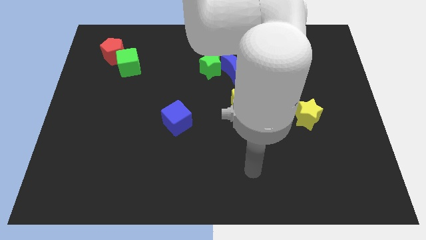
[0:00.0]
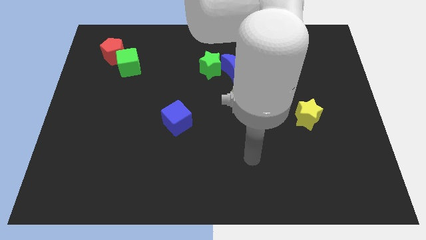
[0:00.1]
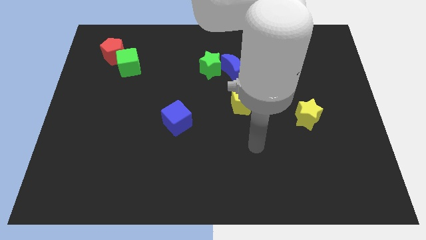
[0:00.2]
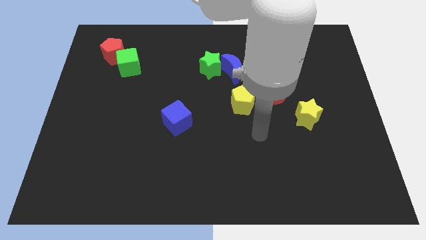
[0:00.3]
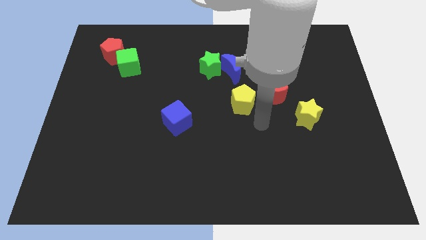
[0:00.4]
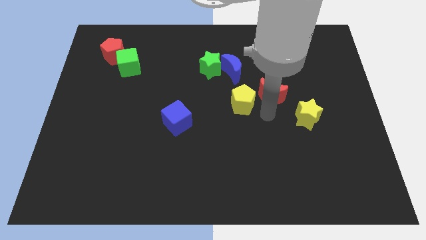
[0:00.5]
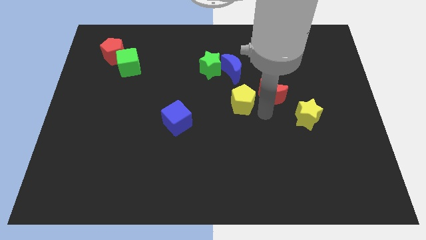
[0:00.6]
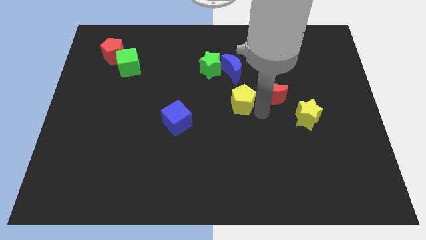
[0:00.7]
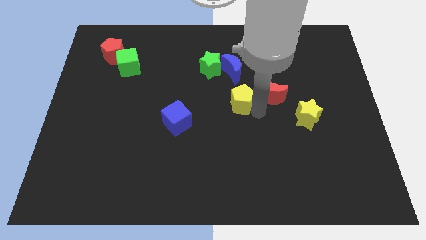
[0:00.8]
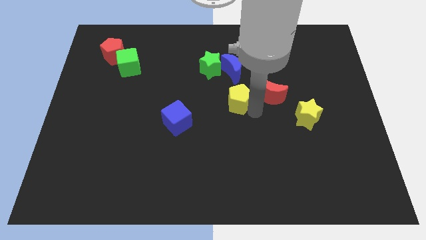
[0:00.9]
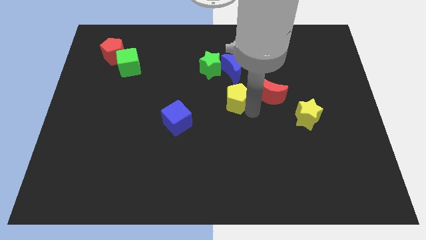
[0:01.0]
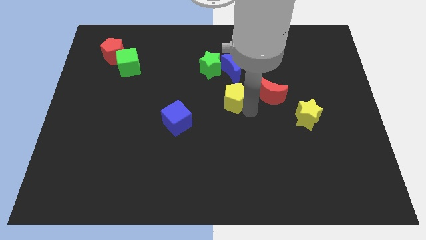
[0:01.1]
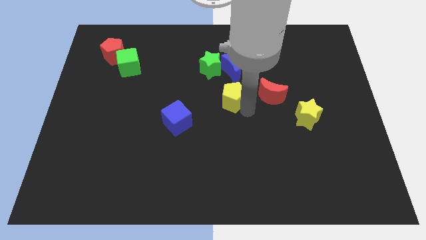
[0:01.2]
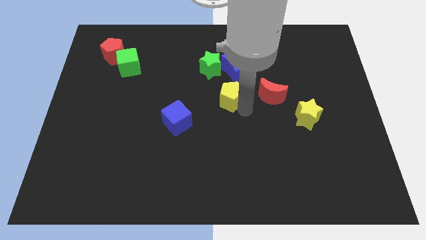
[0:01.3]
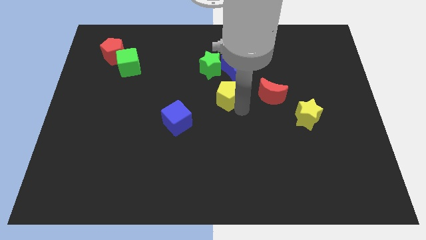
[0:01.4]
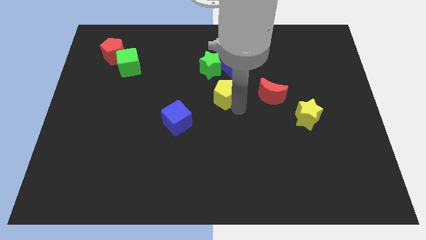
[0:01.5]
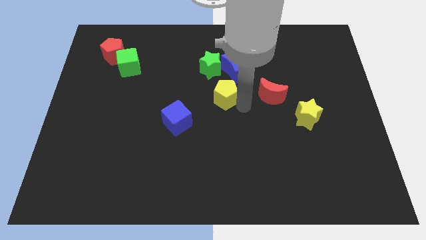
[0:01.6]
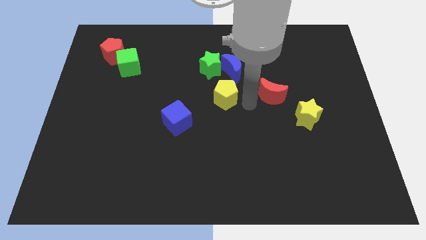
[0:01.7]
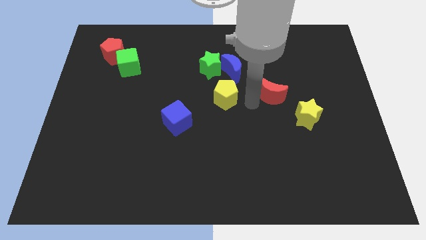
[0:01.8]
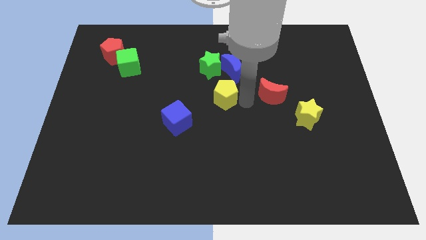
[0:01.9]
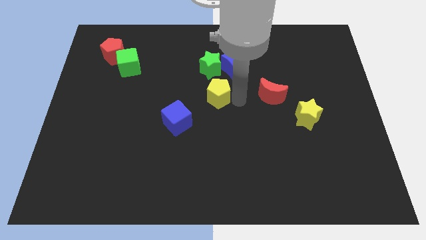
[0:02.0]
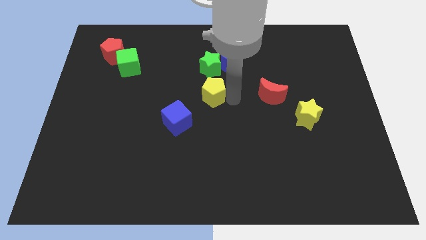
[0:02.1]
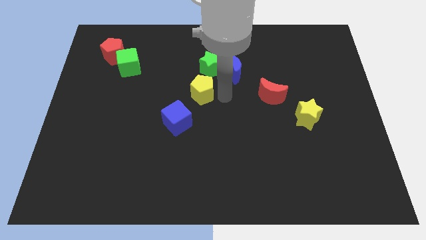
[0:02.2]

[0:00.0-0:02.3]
slightly push the yellow pentagon left

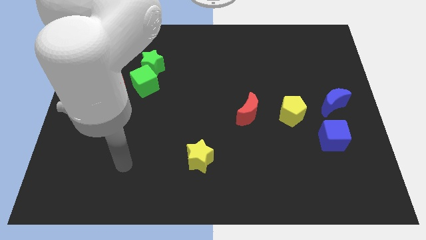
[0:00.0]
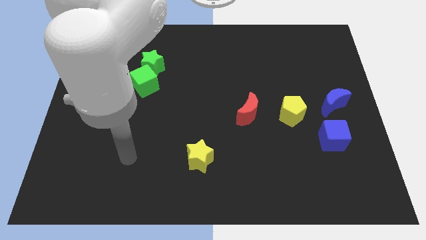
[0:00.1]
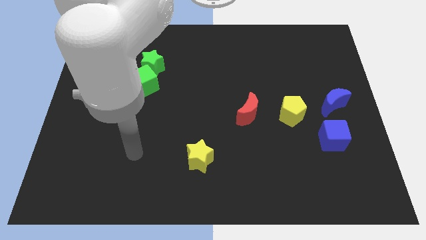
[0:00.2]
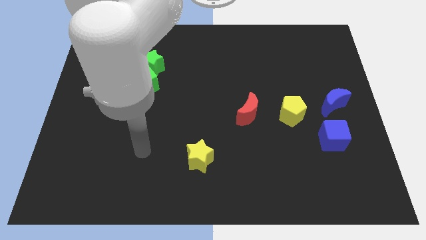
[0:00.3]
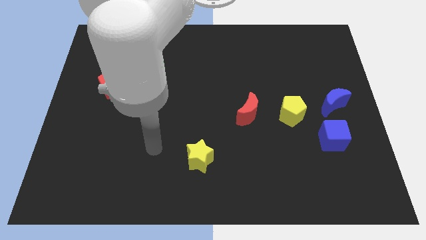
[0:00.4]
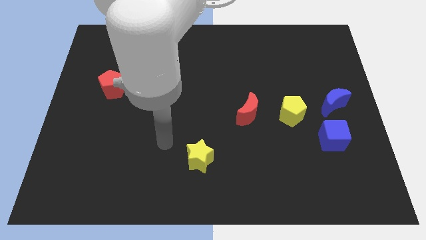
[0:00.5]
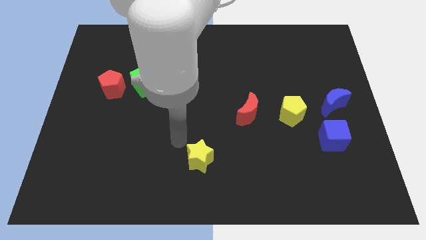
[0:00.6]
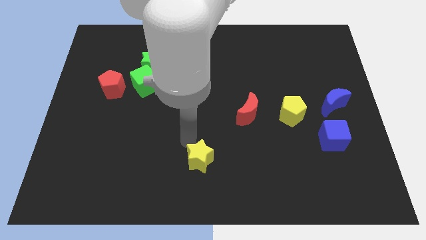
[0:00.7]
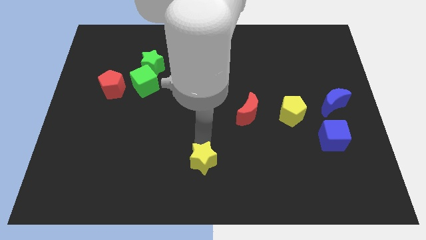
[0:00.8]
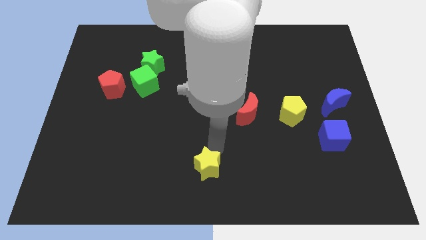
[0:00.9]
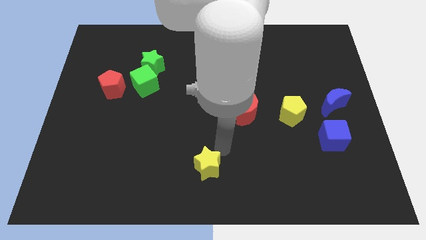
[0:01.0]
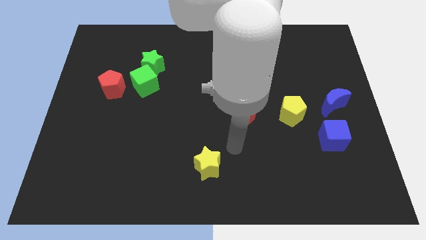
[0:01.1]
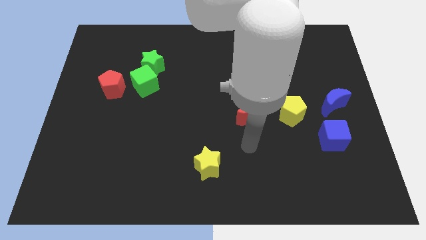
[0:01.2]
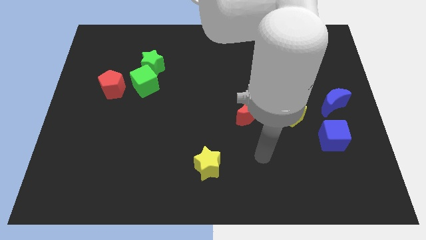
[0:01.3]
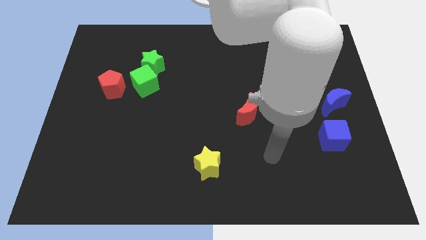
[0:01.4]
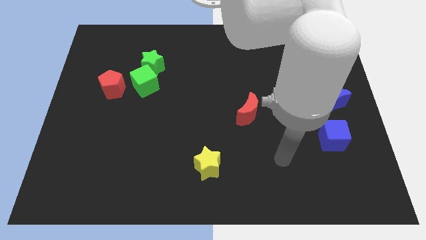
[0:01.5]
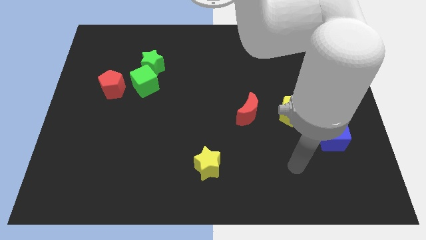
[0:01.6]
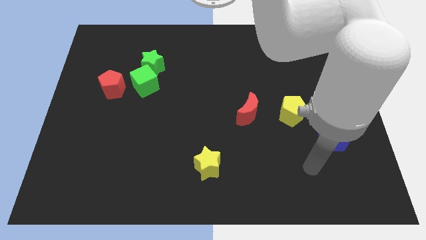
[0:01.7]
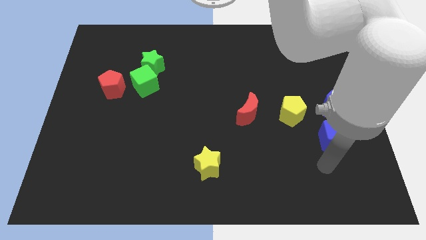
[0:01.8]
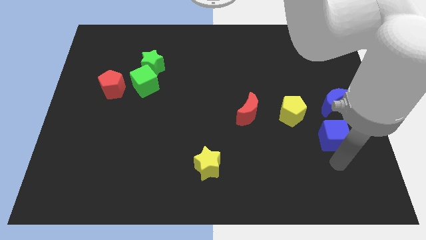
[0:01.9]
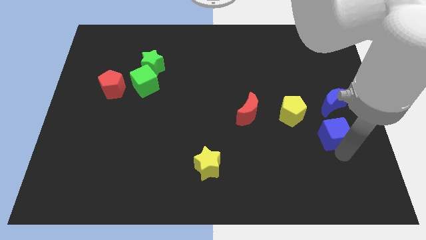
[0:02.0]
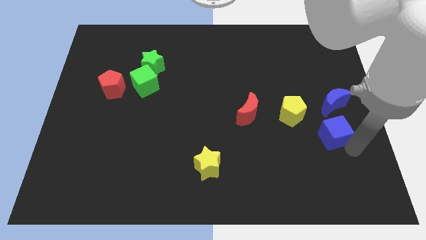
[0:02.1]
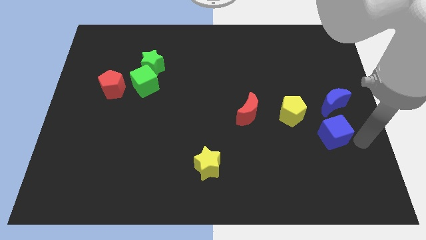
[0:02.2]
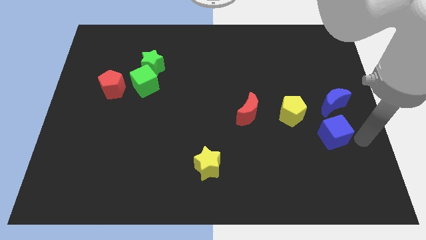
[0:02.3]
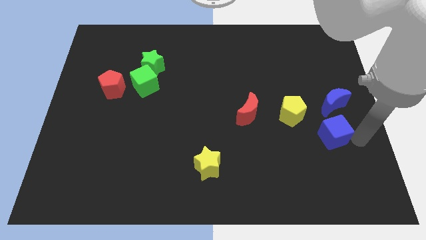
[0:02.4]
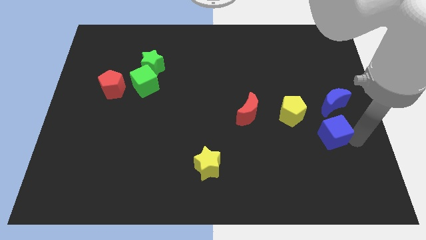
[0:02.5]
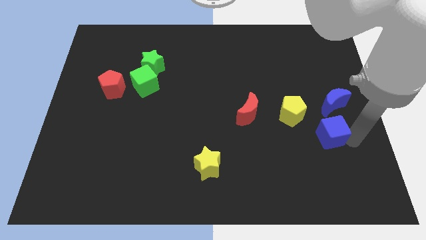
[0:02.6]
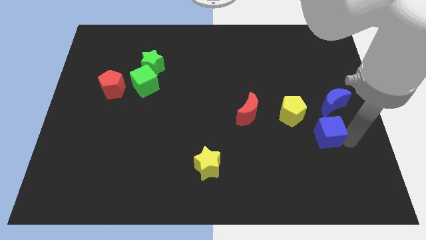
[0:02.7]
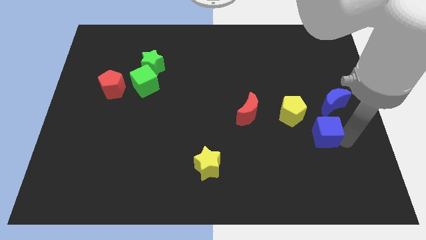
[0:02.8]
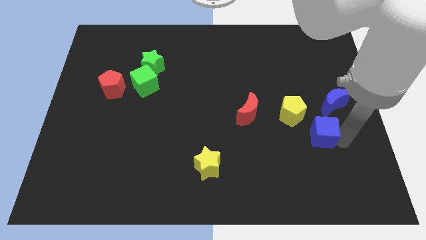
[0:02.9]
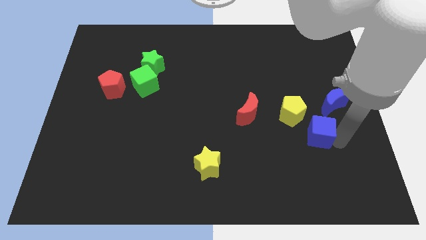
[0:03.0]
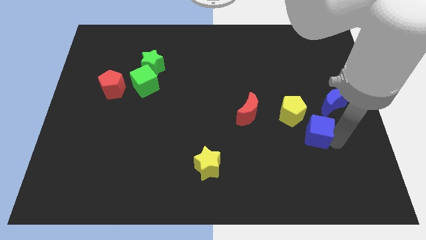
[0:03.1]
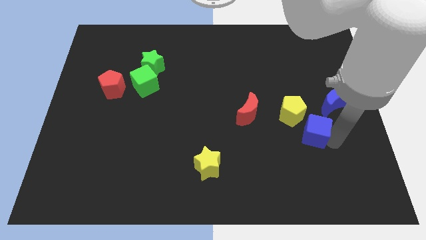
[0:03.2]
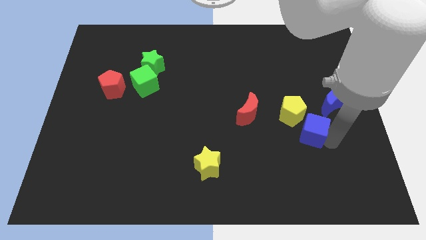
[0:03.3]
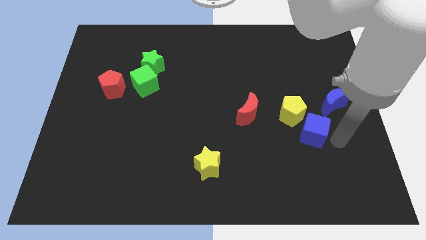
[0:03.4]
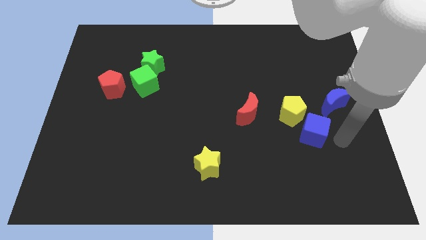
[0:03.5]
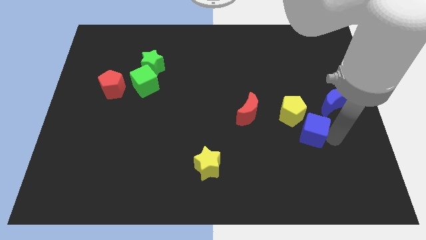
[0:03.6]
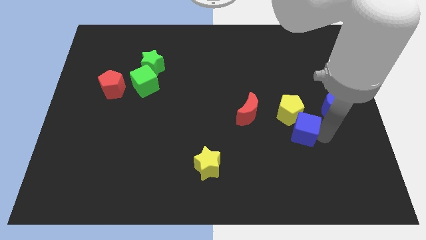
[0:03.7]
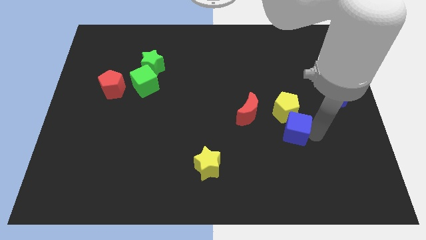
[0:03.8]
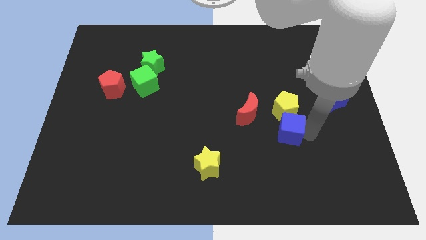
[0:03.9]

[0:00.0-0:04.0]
move the blue cube up and to the left diagonally a little bit

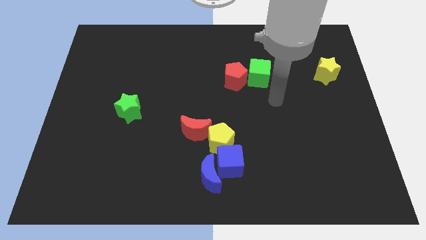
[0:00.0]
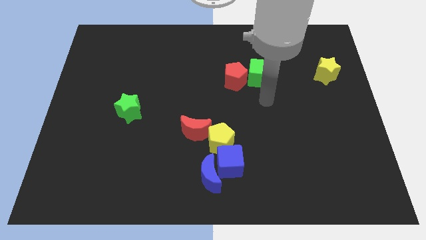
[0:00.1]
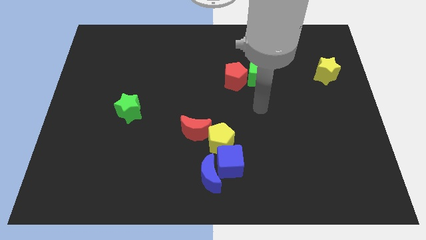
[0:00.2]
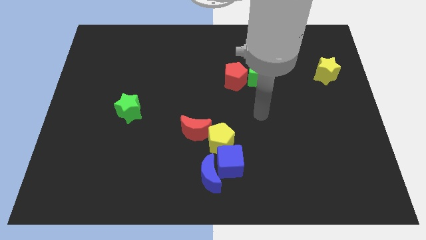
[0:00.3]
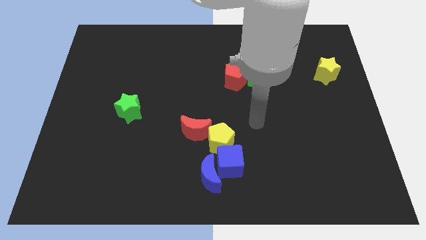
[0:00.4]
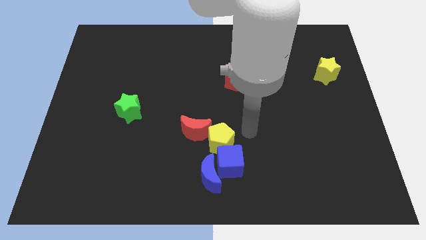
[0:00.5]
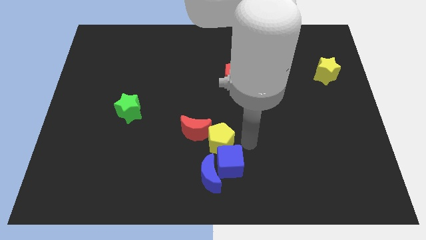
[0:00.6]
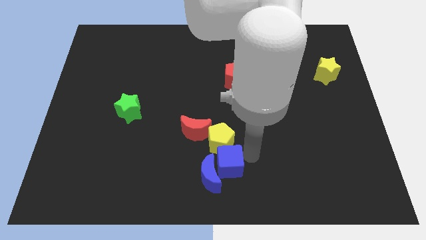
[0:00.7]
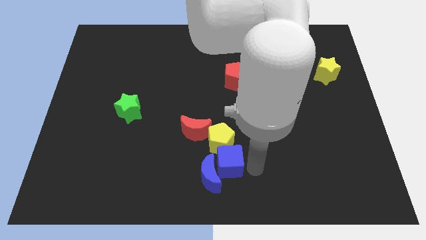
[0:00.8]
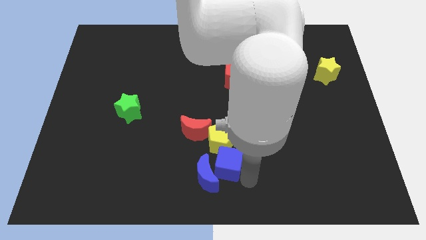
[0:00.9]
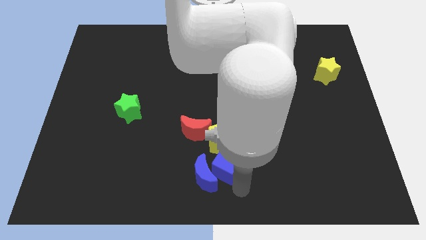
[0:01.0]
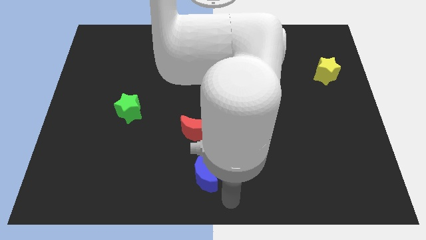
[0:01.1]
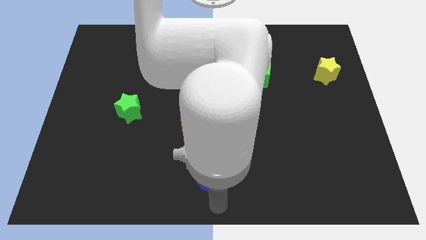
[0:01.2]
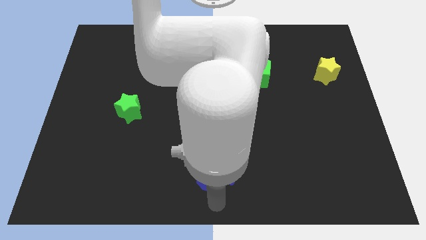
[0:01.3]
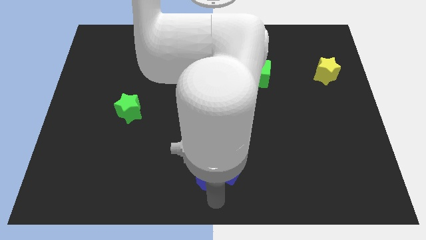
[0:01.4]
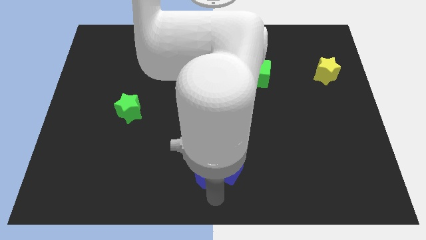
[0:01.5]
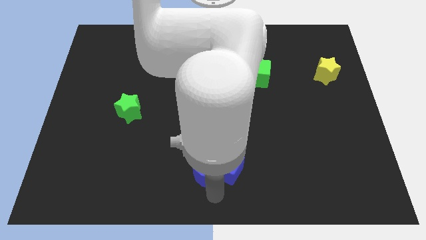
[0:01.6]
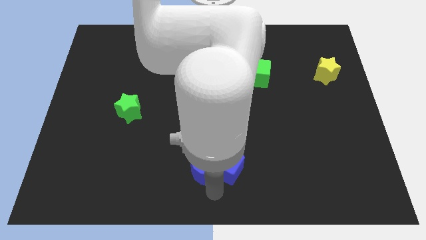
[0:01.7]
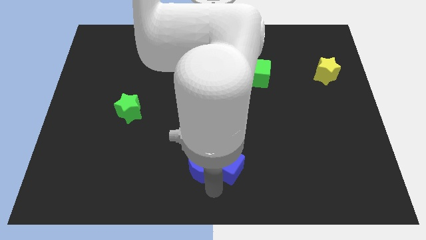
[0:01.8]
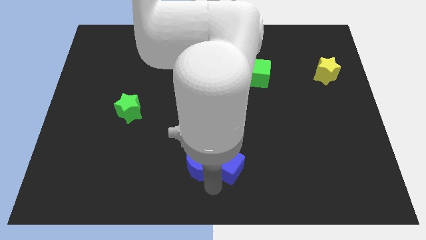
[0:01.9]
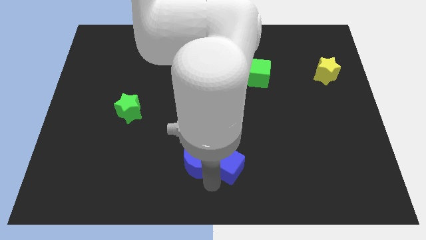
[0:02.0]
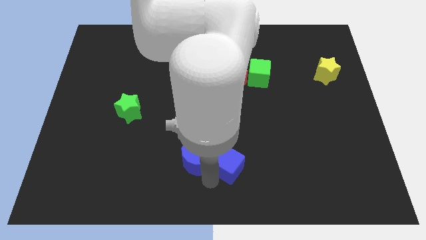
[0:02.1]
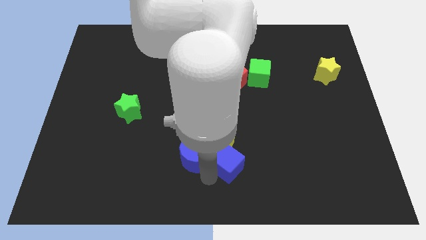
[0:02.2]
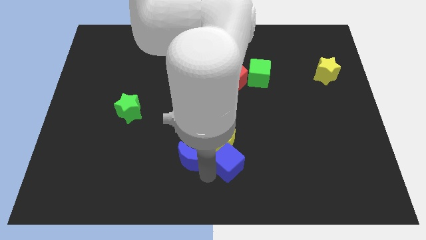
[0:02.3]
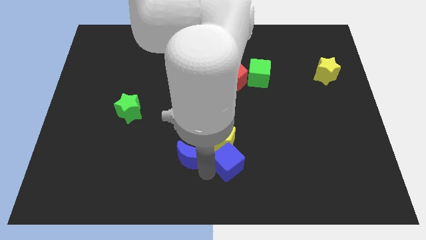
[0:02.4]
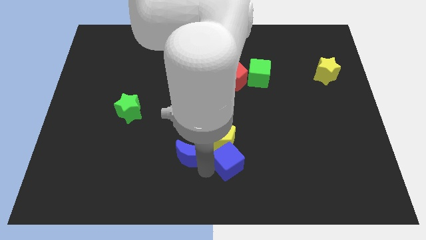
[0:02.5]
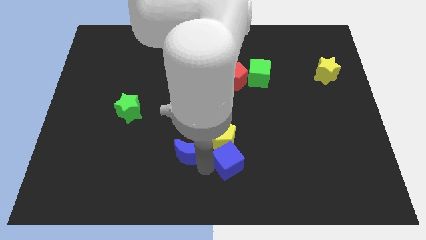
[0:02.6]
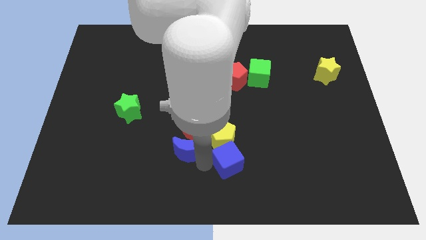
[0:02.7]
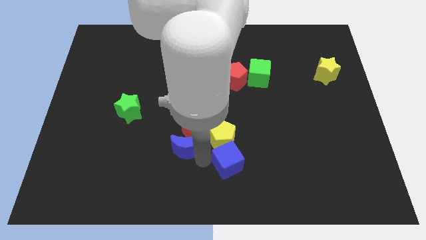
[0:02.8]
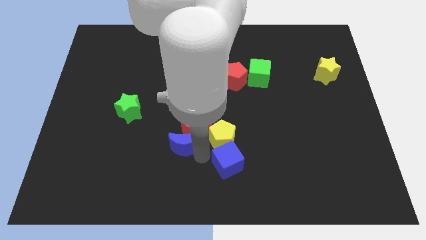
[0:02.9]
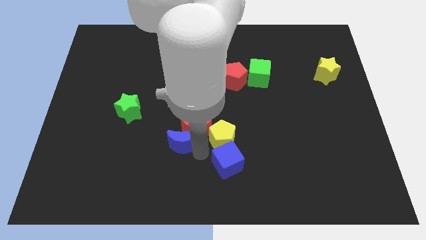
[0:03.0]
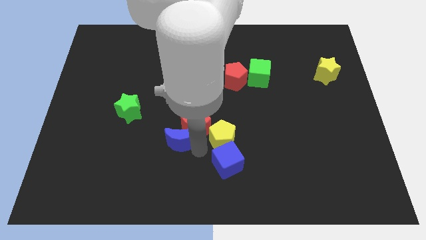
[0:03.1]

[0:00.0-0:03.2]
slightly slide the blue moon upwards
